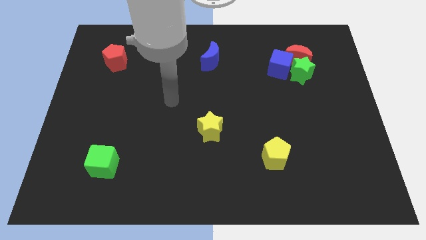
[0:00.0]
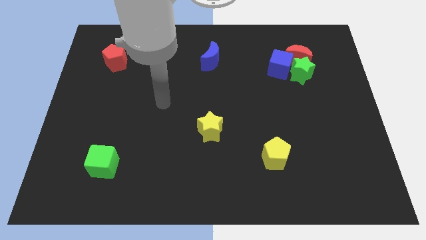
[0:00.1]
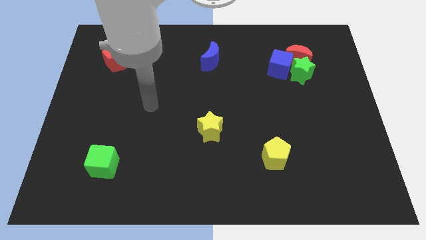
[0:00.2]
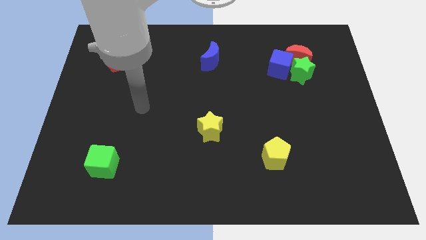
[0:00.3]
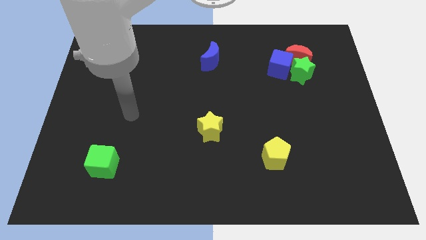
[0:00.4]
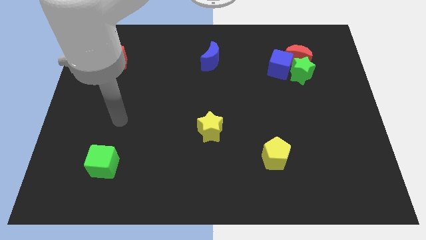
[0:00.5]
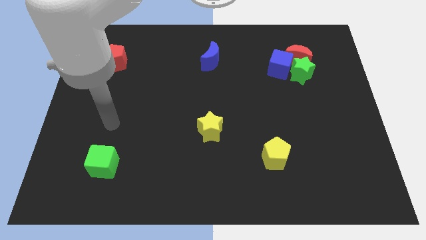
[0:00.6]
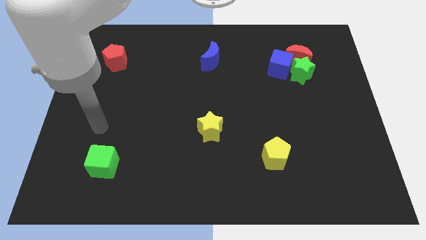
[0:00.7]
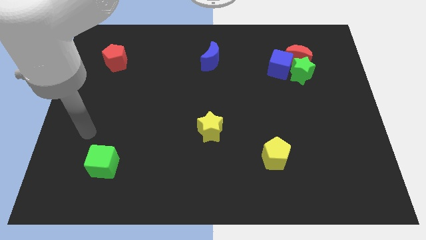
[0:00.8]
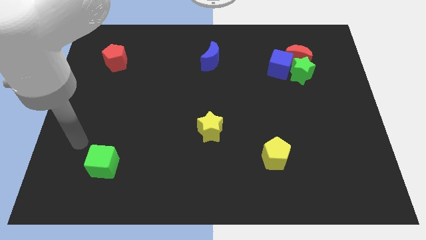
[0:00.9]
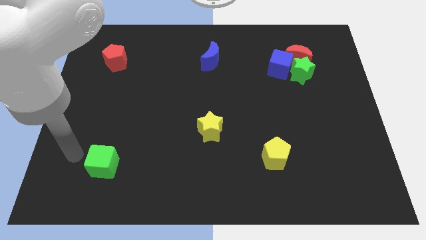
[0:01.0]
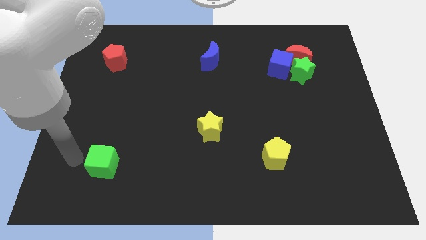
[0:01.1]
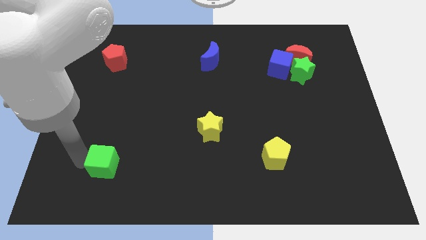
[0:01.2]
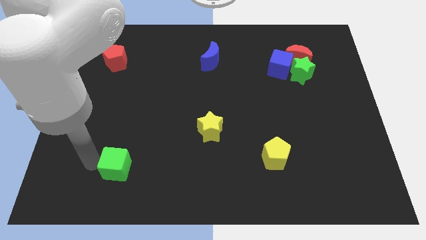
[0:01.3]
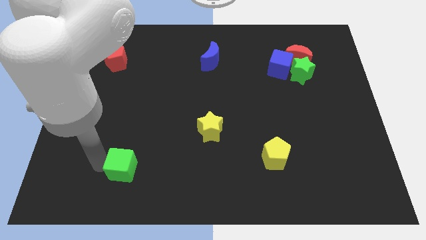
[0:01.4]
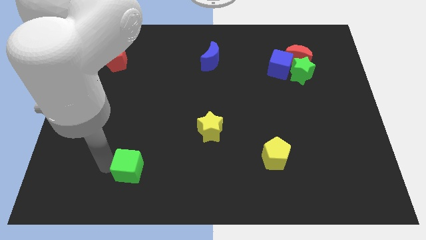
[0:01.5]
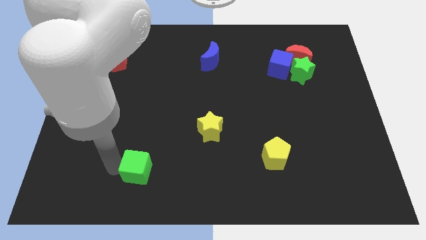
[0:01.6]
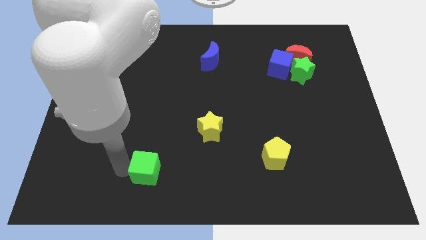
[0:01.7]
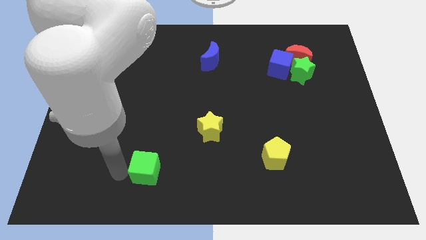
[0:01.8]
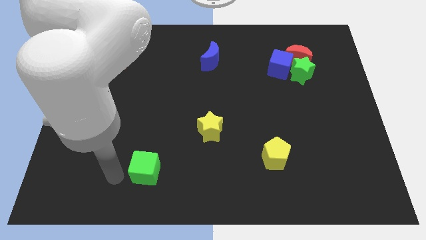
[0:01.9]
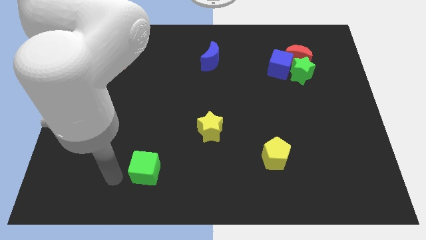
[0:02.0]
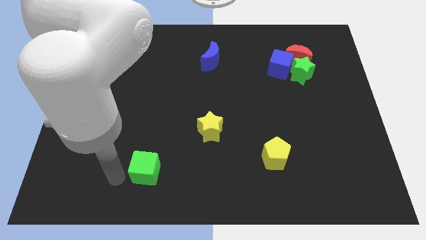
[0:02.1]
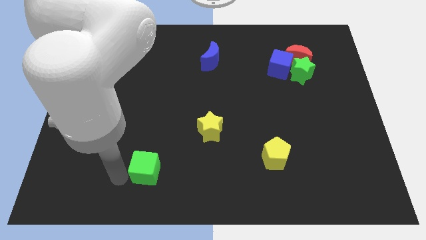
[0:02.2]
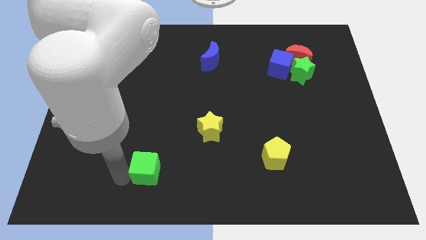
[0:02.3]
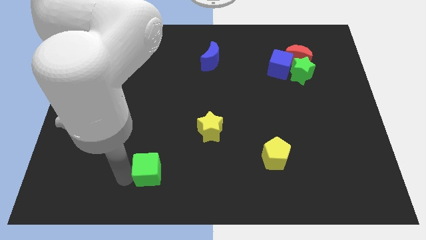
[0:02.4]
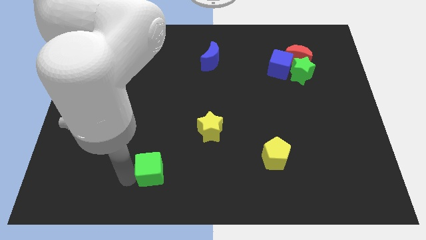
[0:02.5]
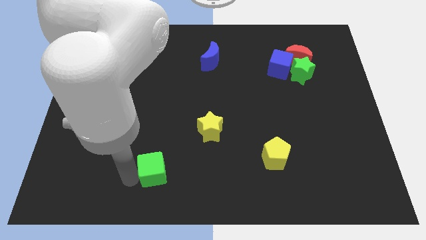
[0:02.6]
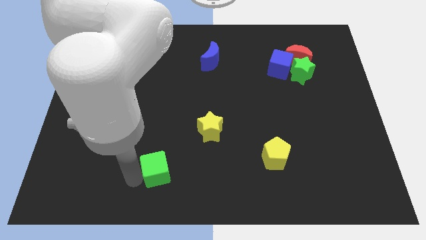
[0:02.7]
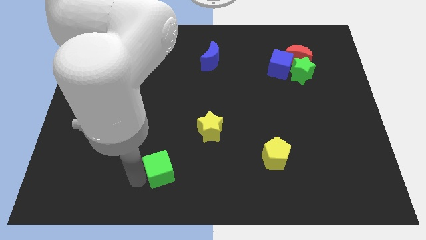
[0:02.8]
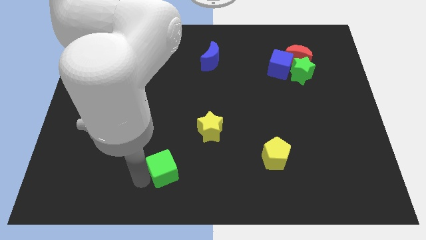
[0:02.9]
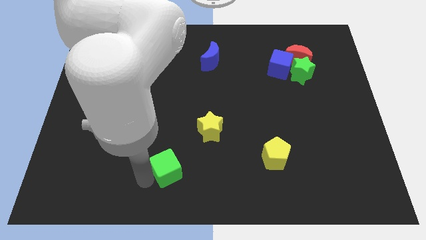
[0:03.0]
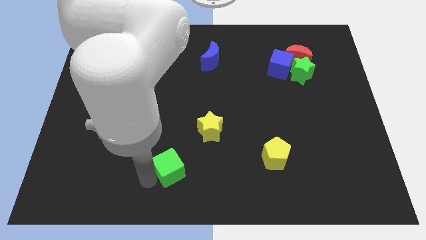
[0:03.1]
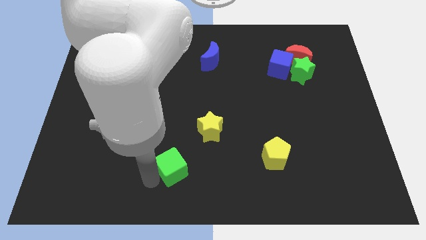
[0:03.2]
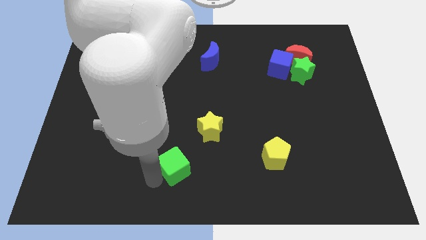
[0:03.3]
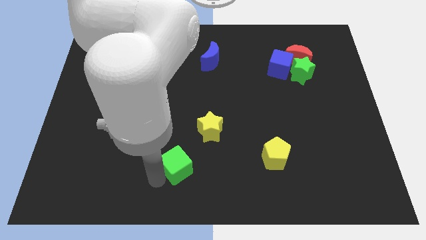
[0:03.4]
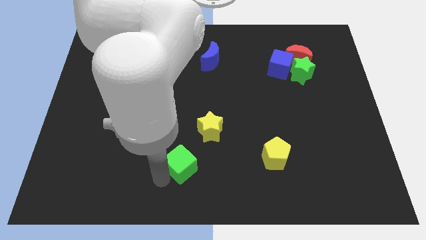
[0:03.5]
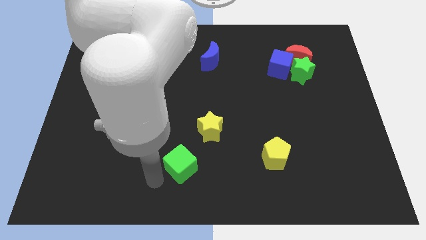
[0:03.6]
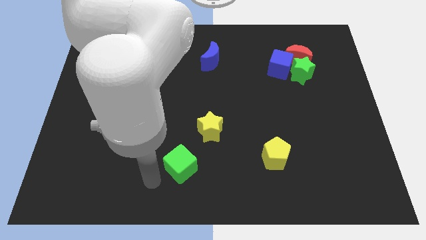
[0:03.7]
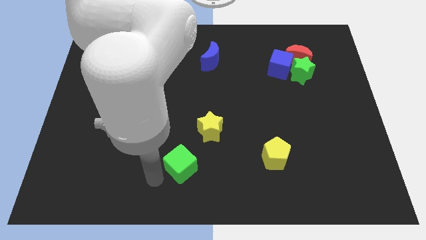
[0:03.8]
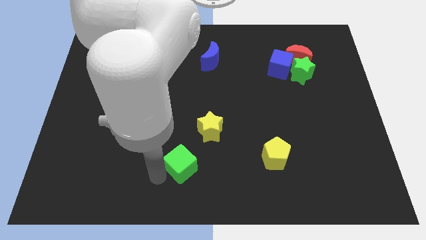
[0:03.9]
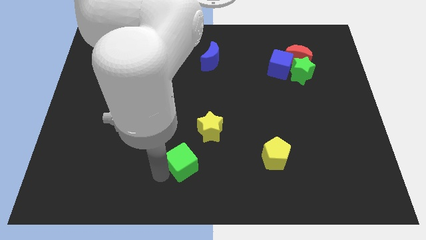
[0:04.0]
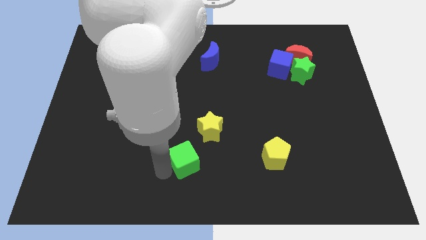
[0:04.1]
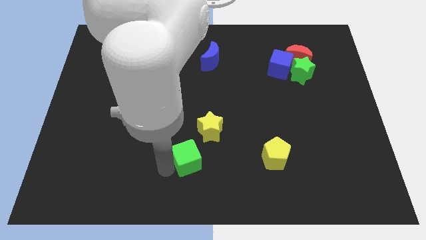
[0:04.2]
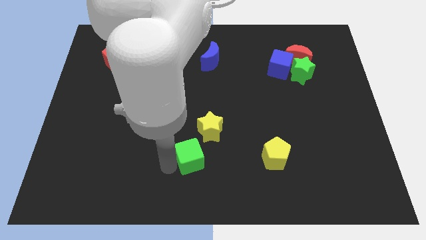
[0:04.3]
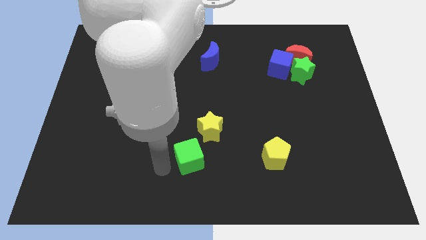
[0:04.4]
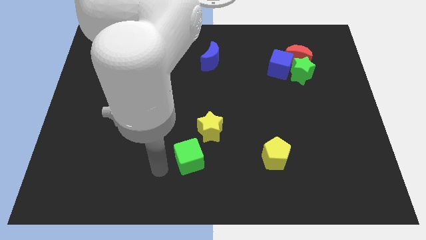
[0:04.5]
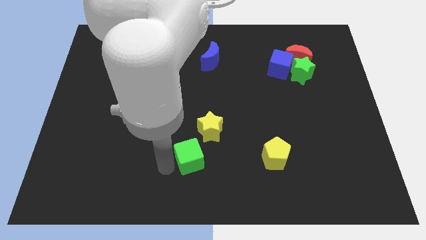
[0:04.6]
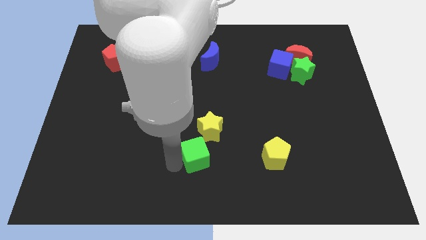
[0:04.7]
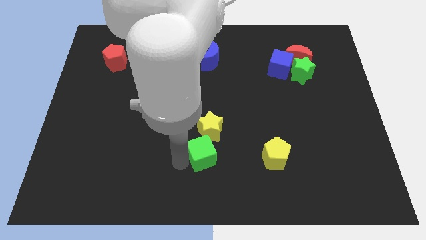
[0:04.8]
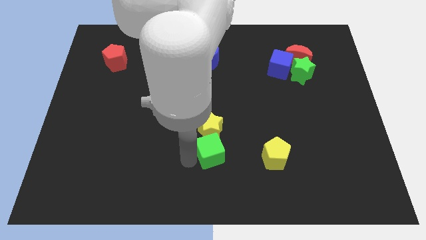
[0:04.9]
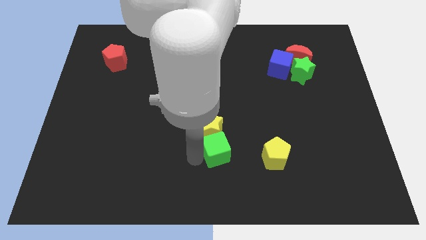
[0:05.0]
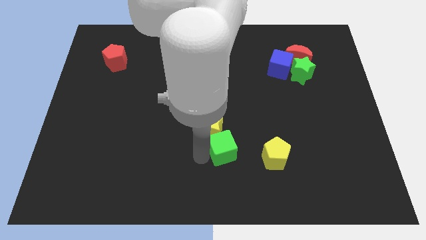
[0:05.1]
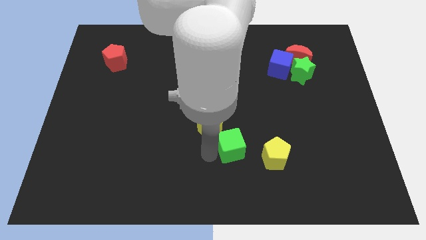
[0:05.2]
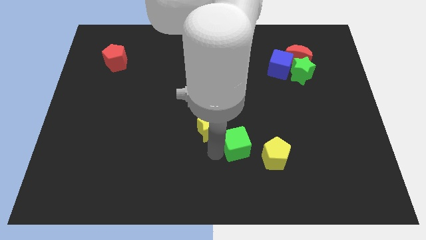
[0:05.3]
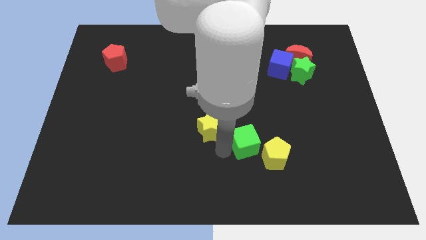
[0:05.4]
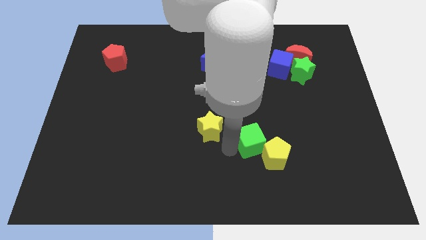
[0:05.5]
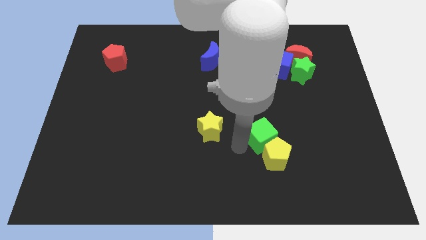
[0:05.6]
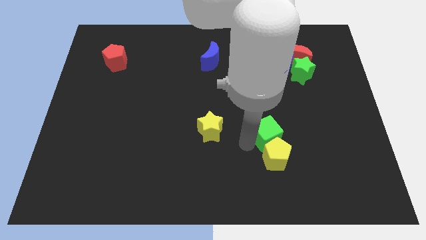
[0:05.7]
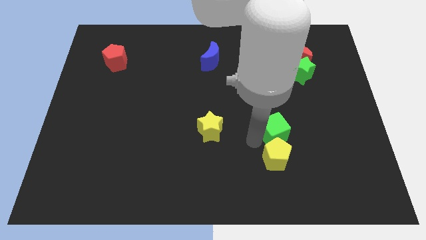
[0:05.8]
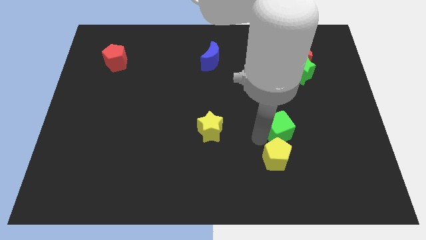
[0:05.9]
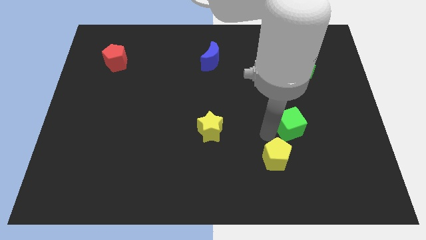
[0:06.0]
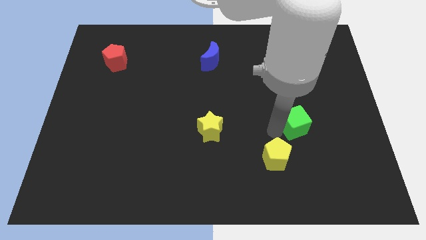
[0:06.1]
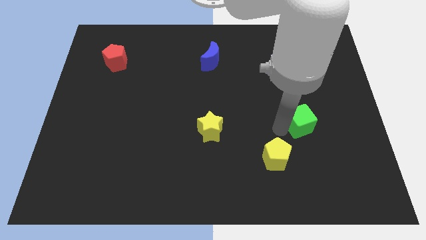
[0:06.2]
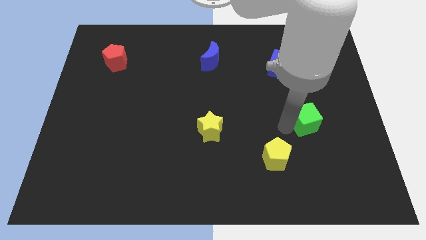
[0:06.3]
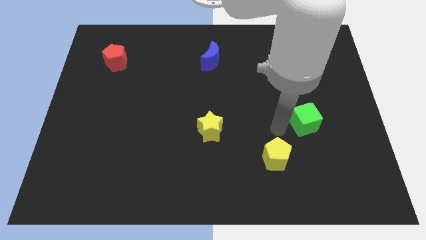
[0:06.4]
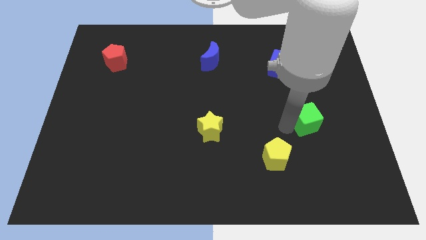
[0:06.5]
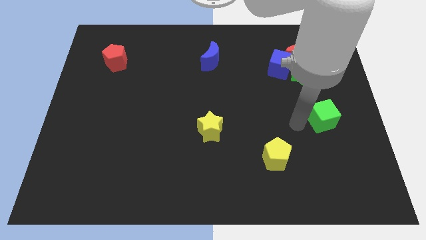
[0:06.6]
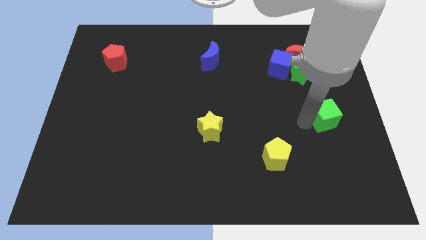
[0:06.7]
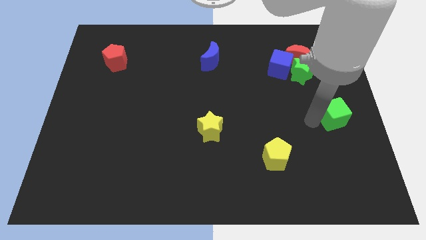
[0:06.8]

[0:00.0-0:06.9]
put the green cube to the right side of the board
